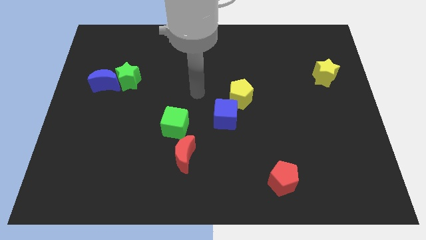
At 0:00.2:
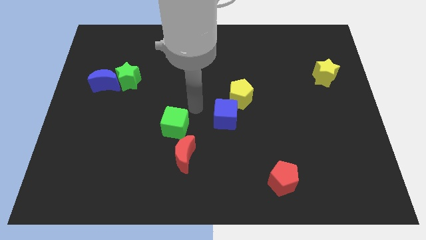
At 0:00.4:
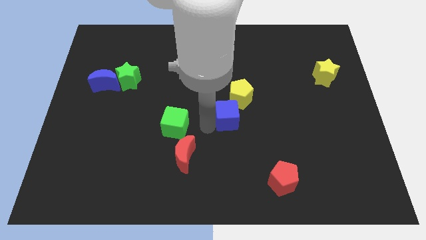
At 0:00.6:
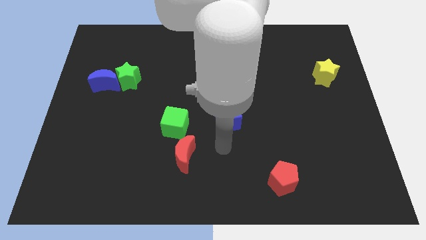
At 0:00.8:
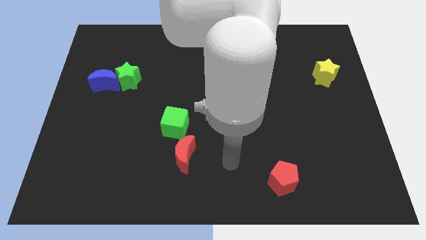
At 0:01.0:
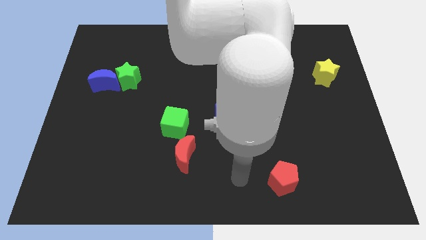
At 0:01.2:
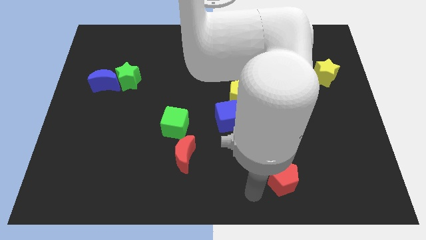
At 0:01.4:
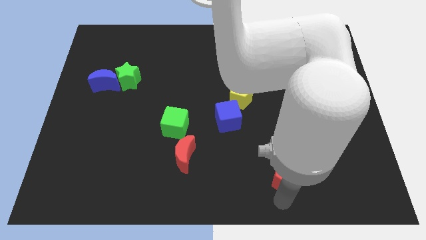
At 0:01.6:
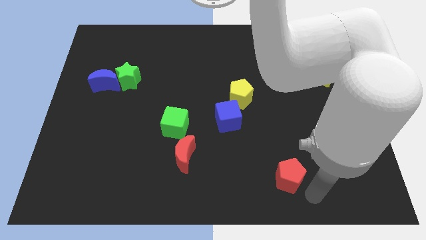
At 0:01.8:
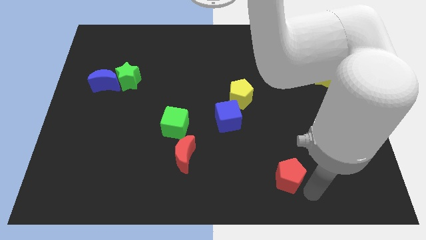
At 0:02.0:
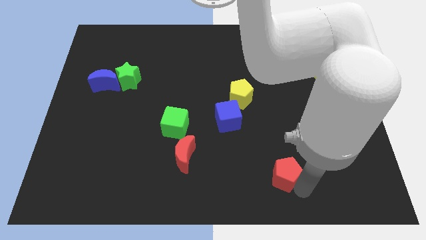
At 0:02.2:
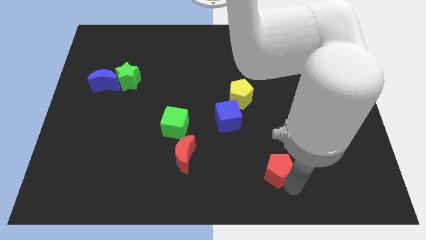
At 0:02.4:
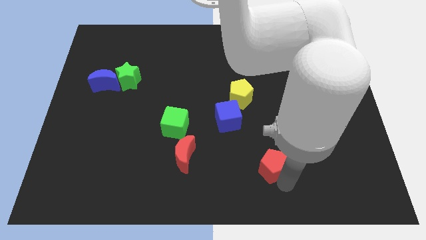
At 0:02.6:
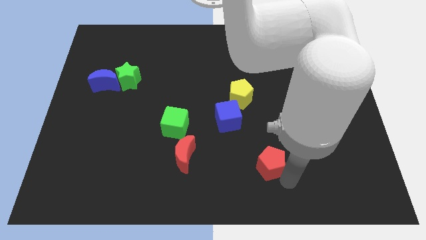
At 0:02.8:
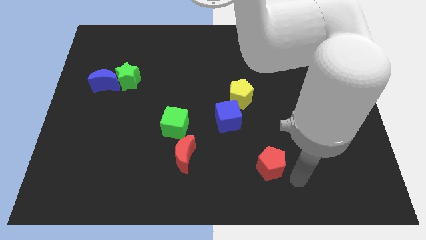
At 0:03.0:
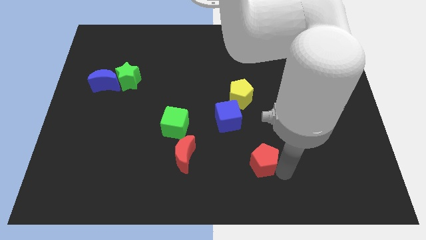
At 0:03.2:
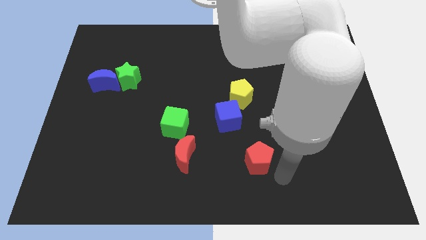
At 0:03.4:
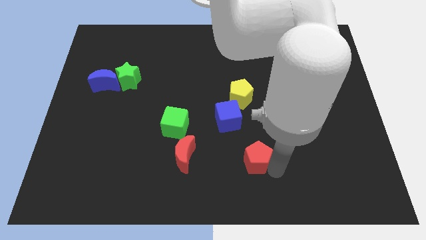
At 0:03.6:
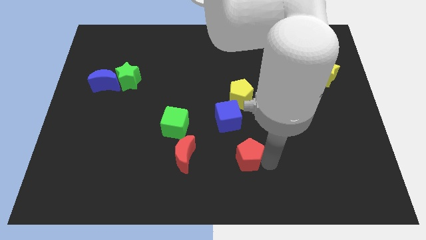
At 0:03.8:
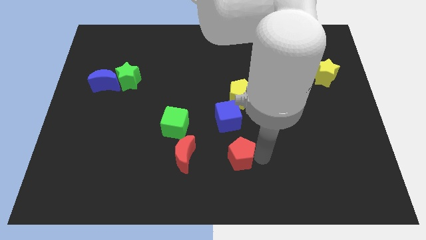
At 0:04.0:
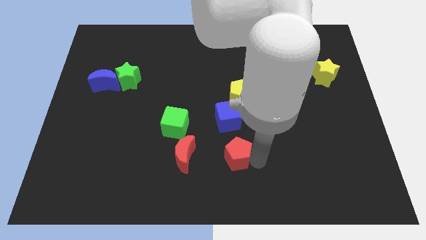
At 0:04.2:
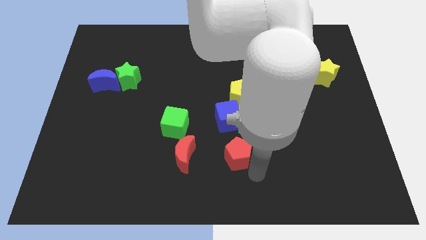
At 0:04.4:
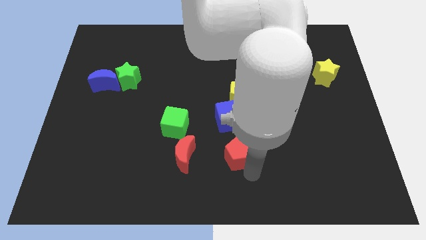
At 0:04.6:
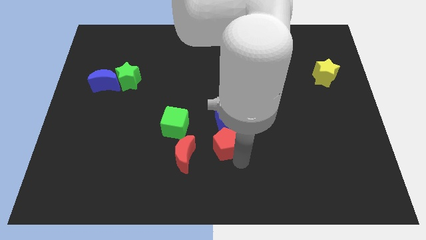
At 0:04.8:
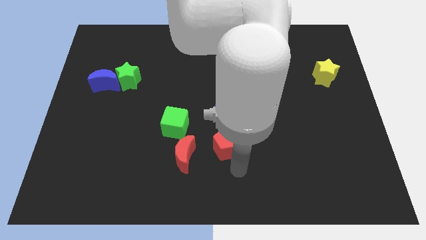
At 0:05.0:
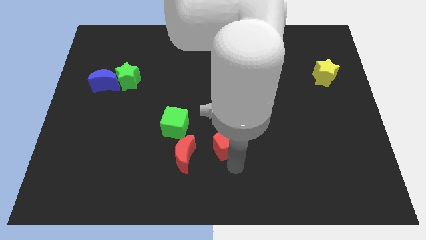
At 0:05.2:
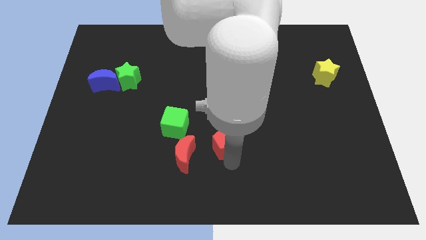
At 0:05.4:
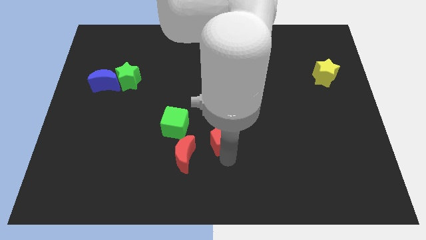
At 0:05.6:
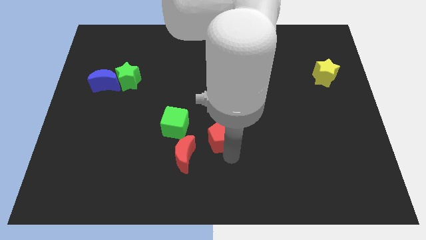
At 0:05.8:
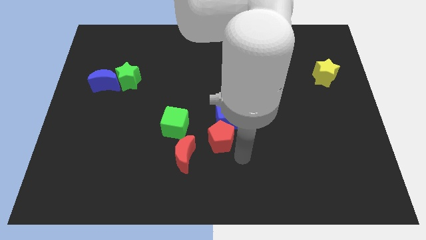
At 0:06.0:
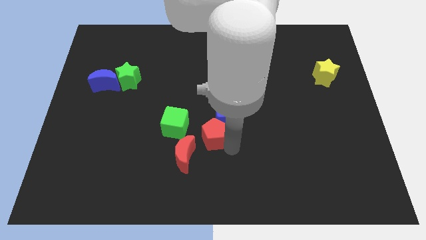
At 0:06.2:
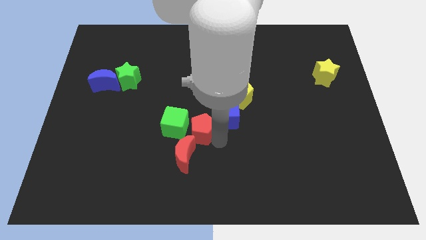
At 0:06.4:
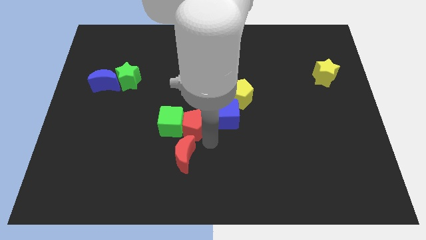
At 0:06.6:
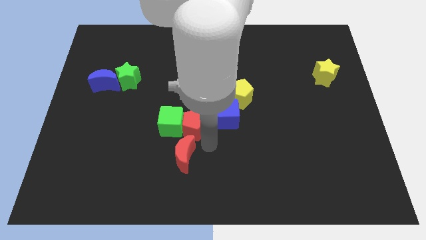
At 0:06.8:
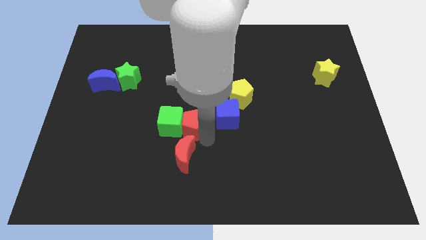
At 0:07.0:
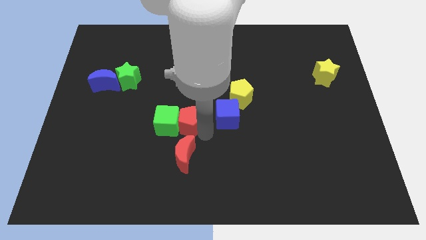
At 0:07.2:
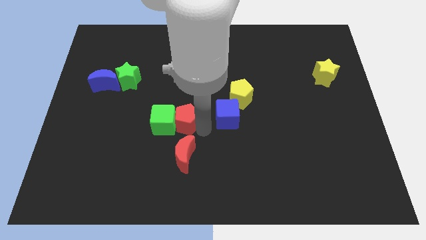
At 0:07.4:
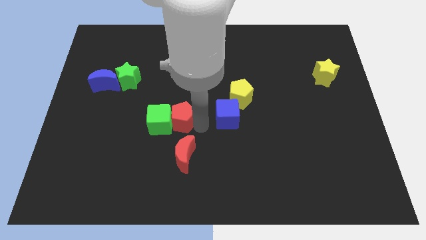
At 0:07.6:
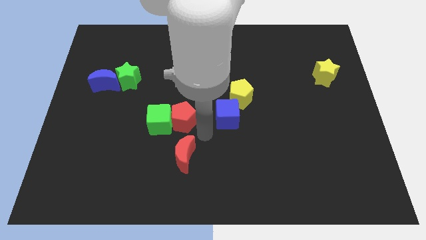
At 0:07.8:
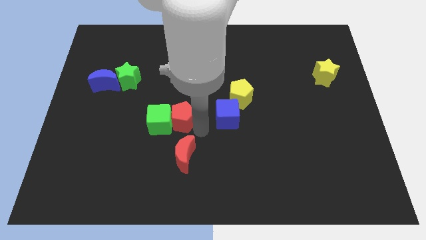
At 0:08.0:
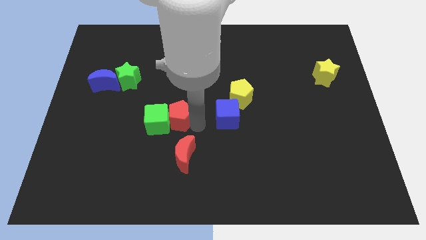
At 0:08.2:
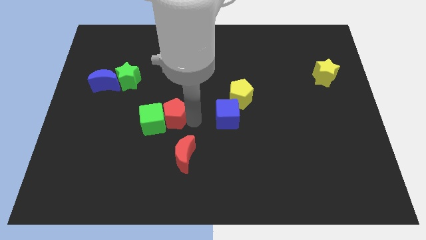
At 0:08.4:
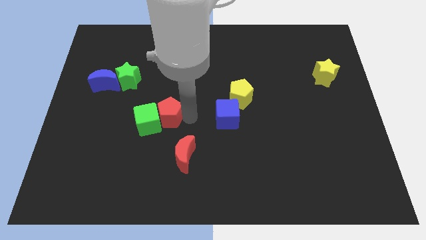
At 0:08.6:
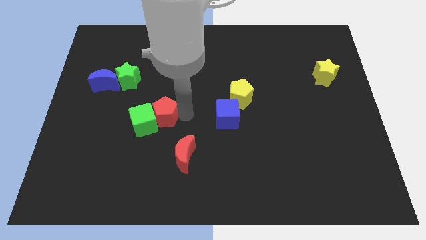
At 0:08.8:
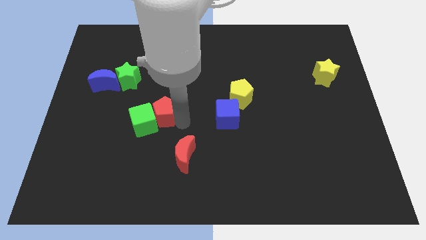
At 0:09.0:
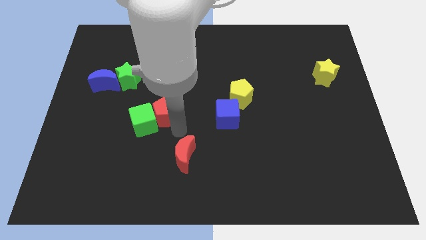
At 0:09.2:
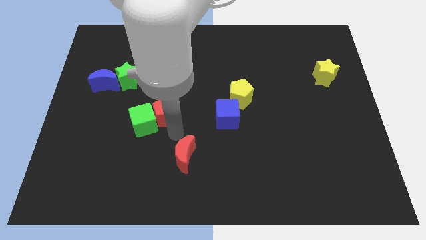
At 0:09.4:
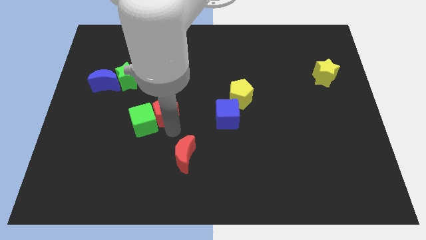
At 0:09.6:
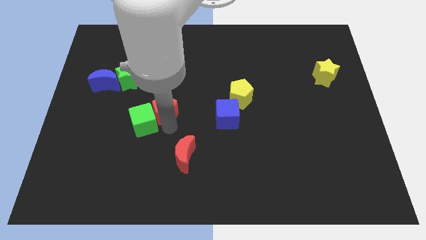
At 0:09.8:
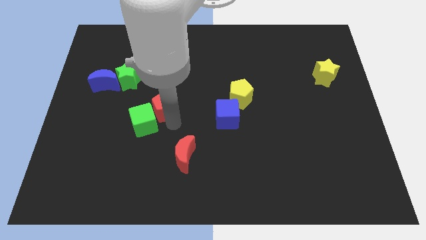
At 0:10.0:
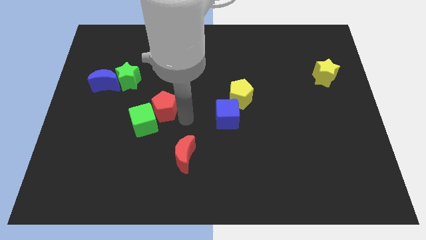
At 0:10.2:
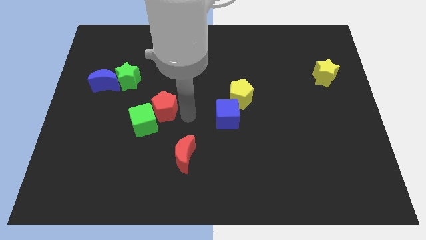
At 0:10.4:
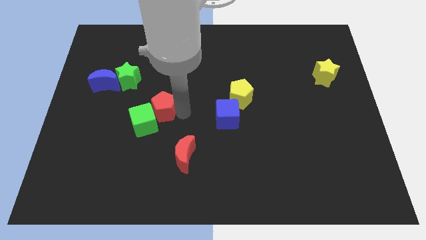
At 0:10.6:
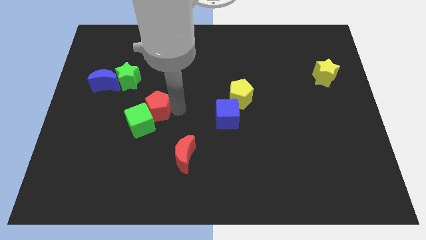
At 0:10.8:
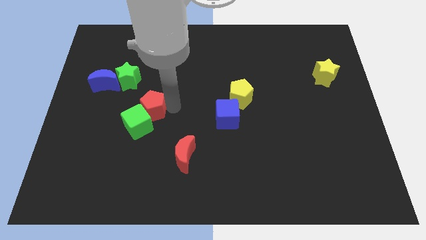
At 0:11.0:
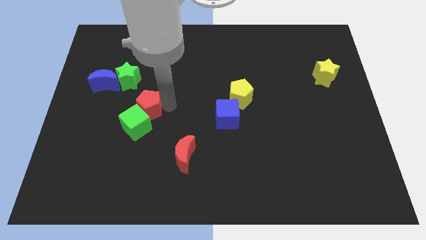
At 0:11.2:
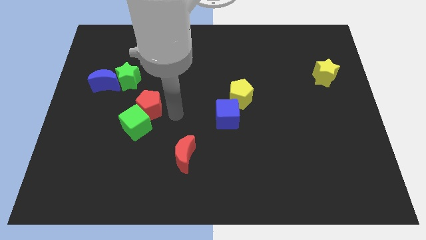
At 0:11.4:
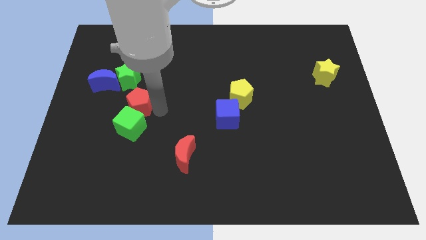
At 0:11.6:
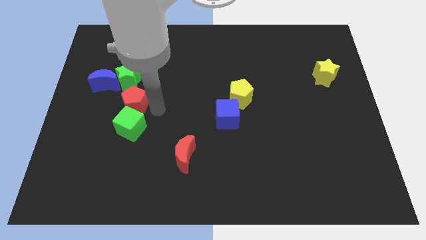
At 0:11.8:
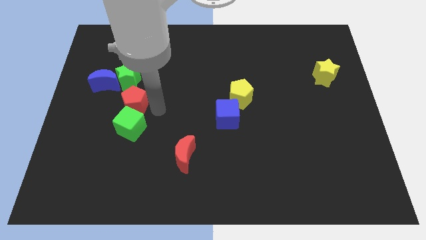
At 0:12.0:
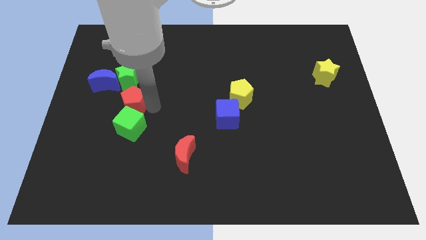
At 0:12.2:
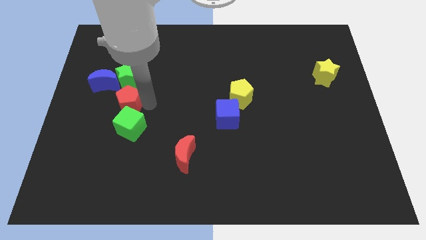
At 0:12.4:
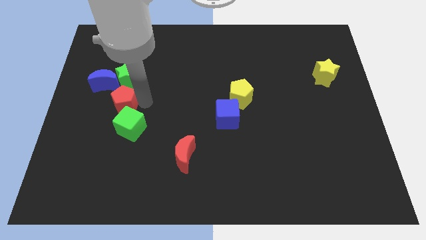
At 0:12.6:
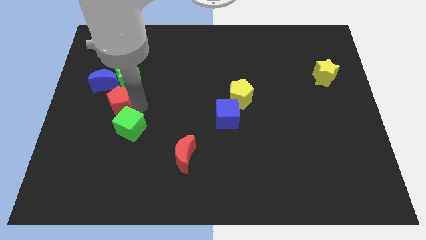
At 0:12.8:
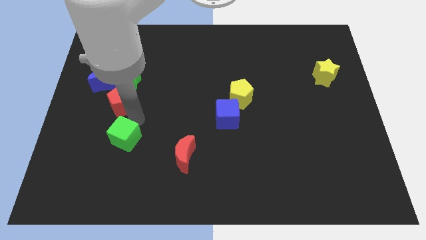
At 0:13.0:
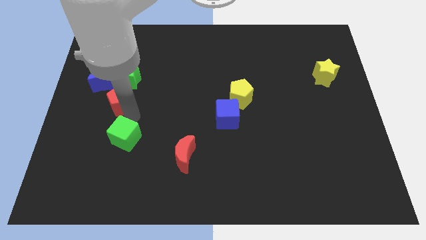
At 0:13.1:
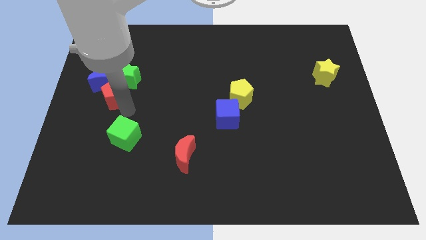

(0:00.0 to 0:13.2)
slide the red pentagon next to the blue moon

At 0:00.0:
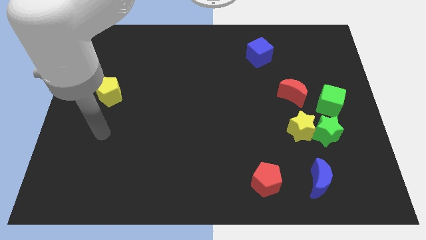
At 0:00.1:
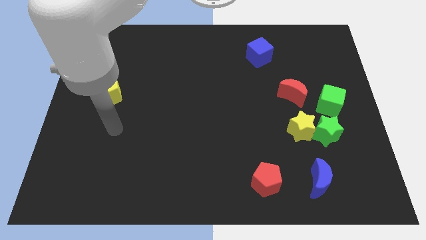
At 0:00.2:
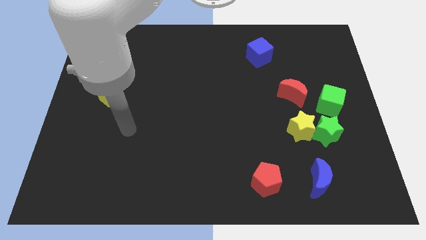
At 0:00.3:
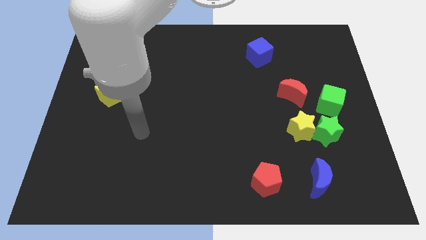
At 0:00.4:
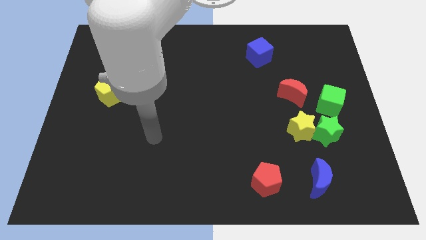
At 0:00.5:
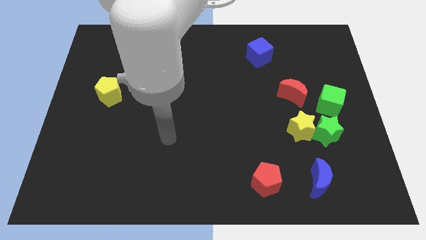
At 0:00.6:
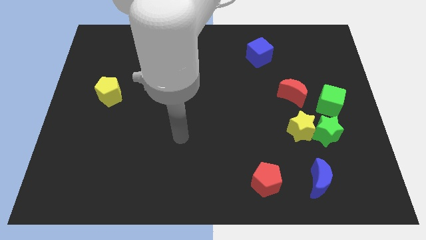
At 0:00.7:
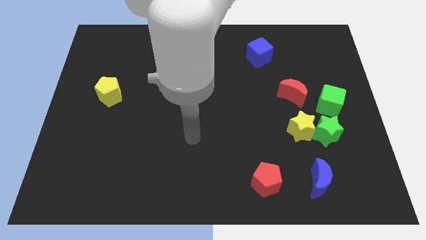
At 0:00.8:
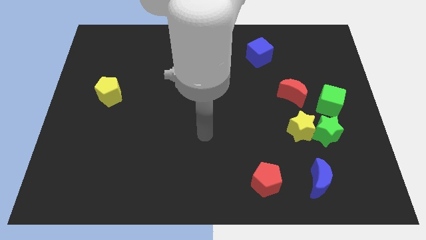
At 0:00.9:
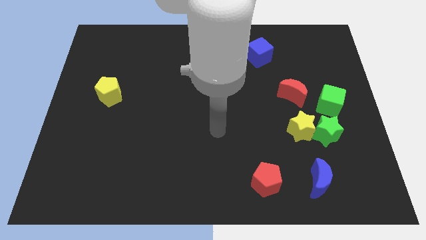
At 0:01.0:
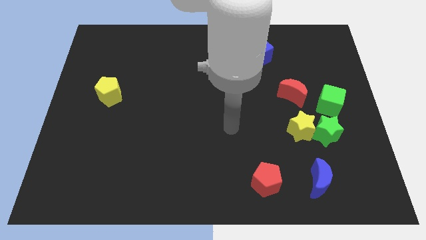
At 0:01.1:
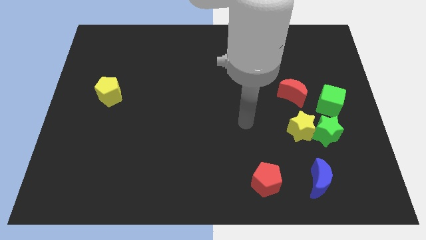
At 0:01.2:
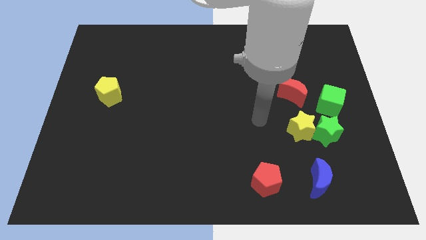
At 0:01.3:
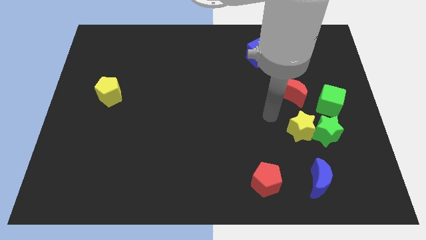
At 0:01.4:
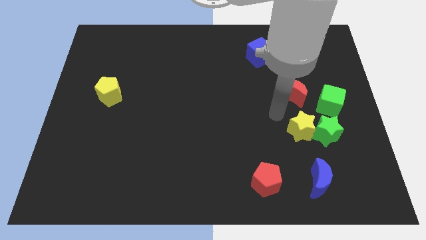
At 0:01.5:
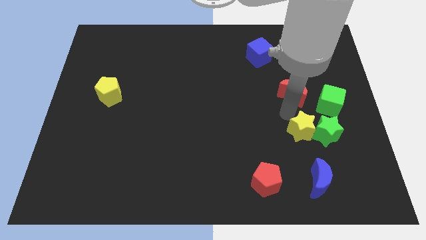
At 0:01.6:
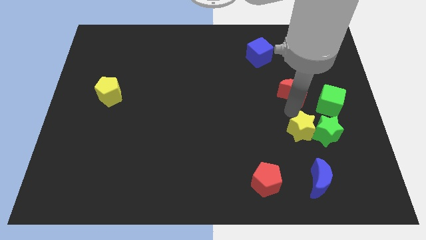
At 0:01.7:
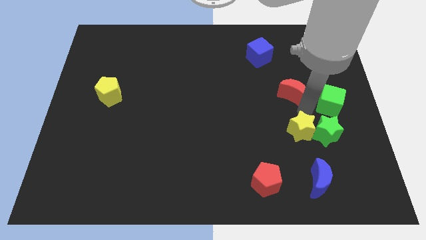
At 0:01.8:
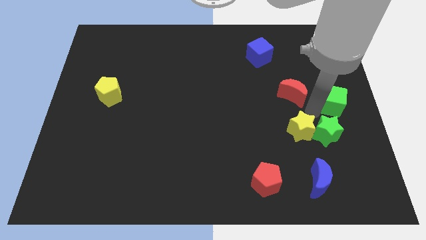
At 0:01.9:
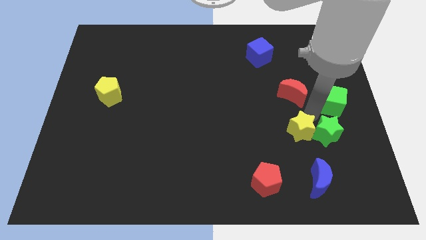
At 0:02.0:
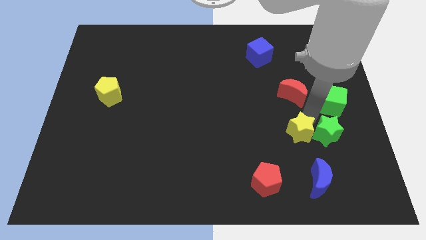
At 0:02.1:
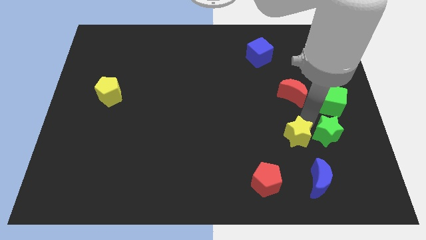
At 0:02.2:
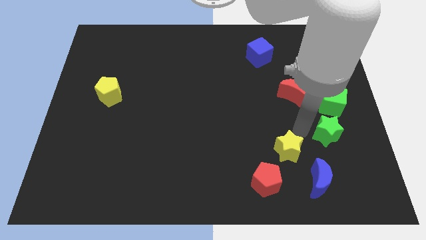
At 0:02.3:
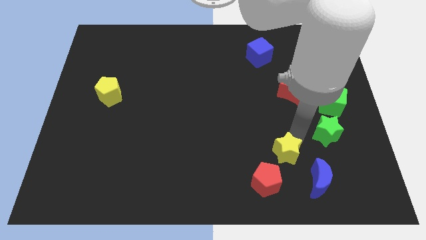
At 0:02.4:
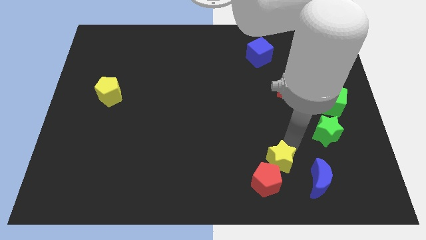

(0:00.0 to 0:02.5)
move the yellow star to the red pentagon
